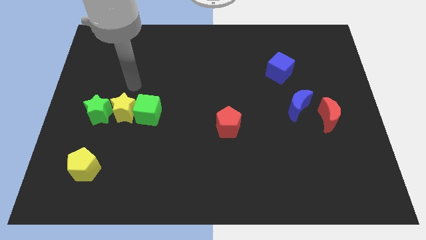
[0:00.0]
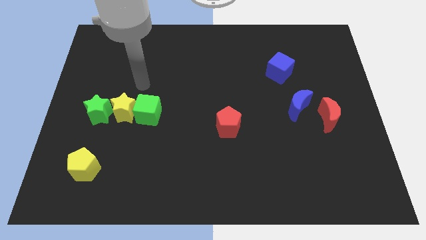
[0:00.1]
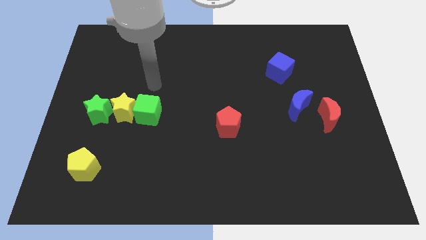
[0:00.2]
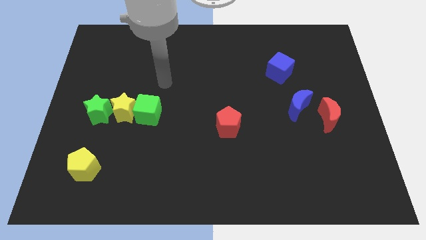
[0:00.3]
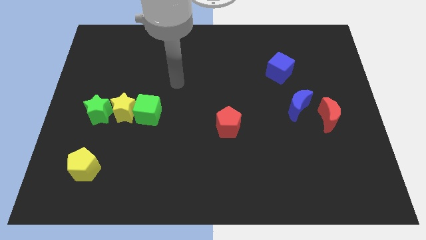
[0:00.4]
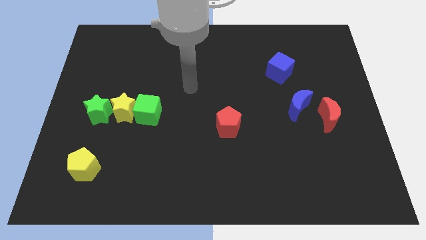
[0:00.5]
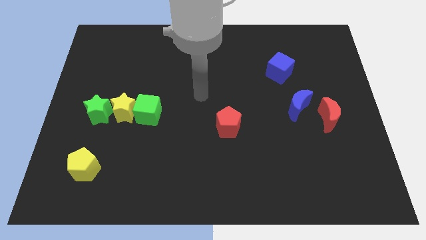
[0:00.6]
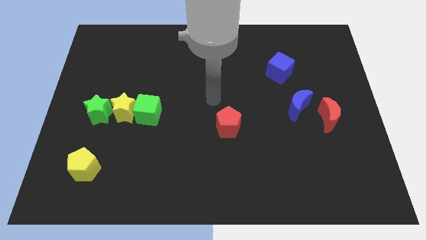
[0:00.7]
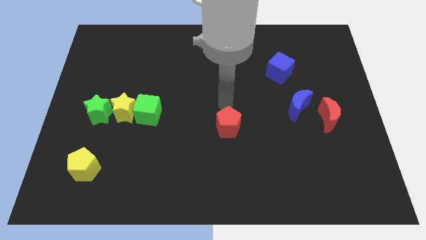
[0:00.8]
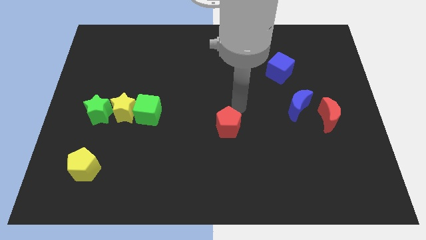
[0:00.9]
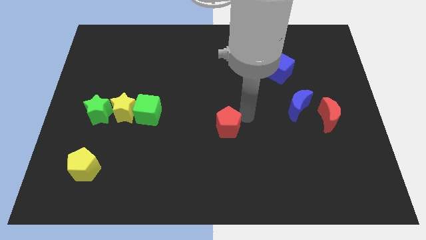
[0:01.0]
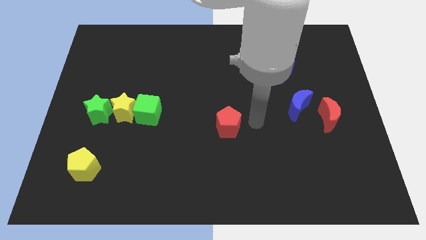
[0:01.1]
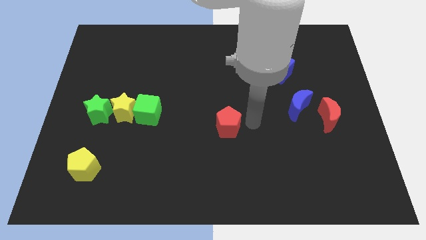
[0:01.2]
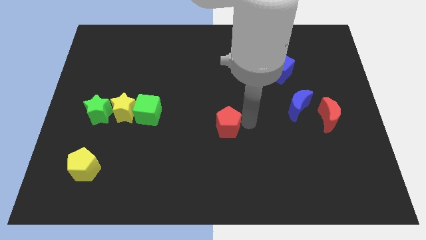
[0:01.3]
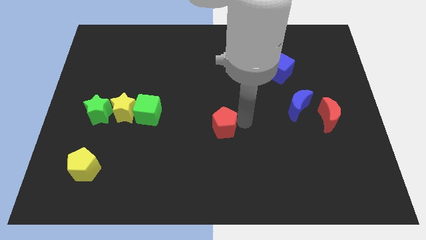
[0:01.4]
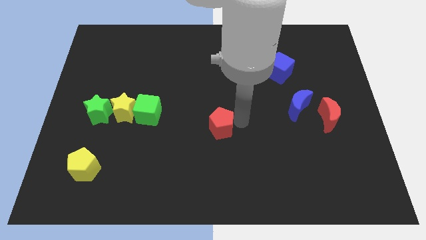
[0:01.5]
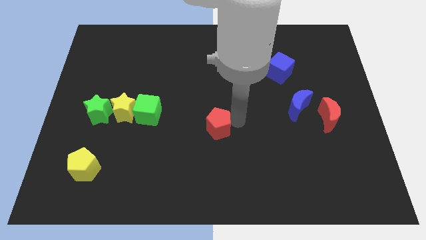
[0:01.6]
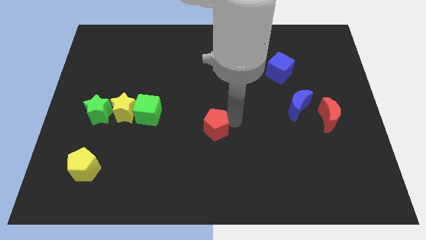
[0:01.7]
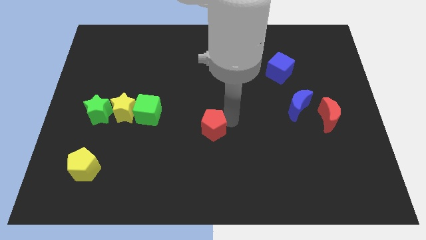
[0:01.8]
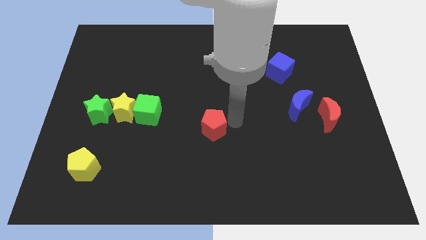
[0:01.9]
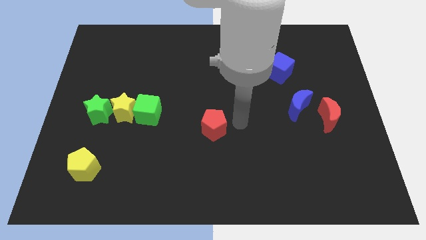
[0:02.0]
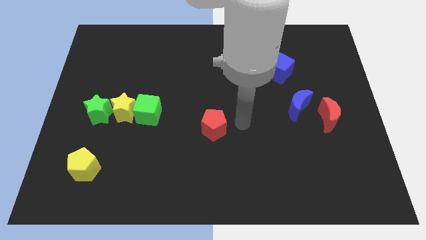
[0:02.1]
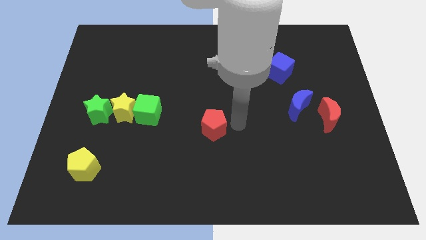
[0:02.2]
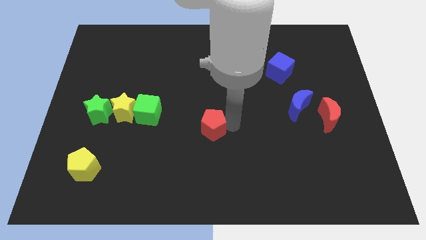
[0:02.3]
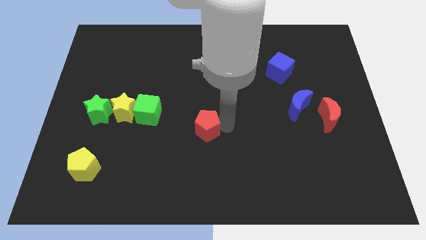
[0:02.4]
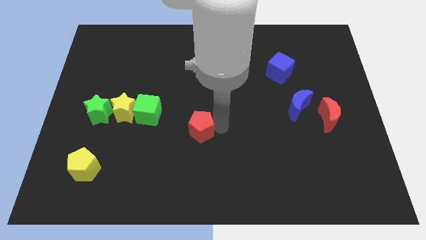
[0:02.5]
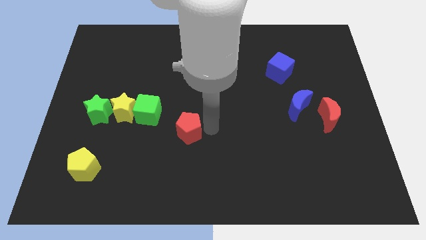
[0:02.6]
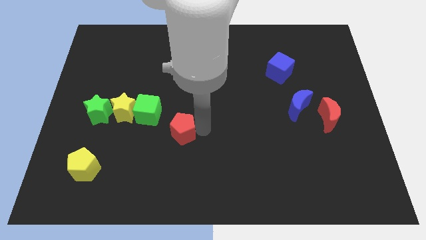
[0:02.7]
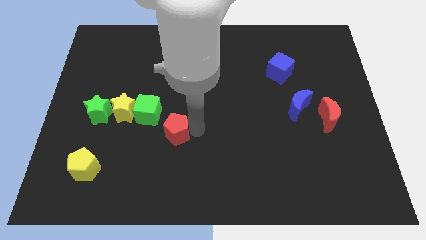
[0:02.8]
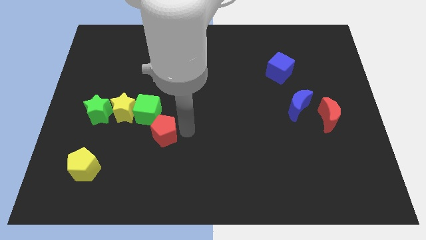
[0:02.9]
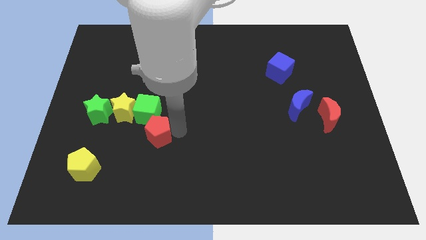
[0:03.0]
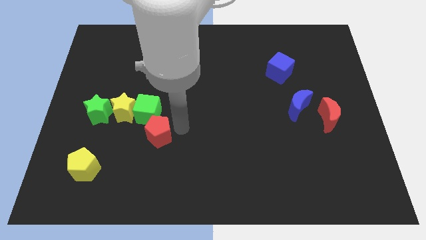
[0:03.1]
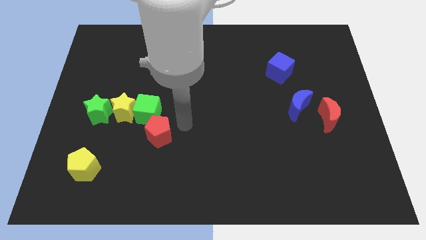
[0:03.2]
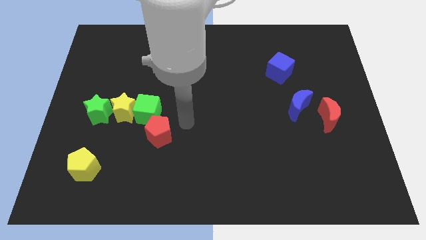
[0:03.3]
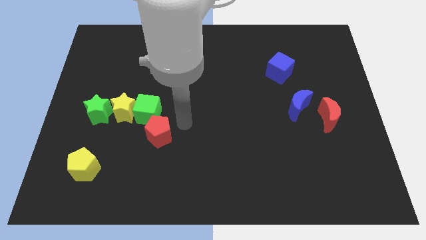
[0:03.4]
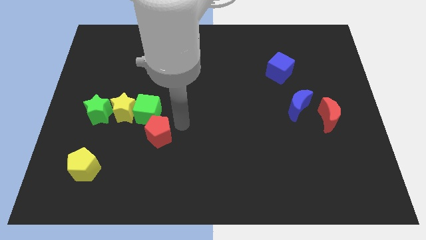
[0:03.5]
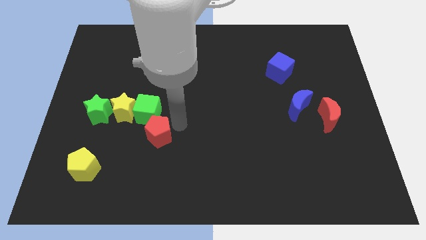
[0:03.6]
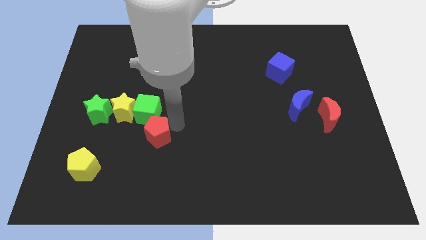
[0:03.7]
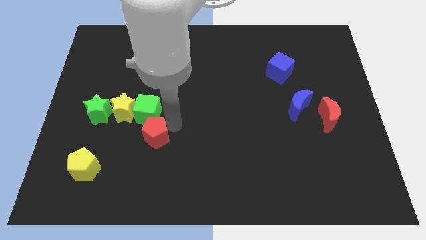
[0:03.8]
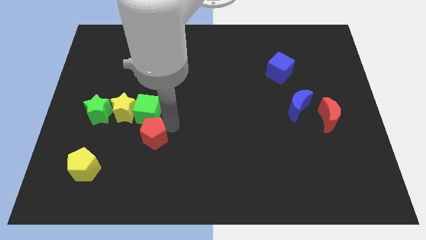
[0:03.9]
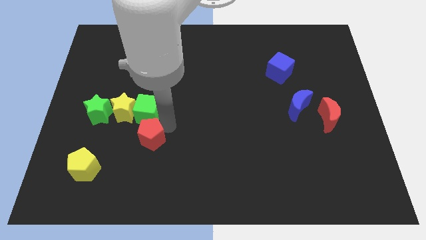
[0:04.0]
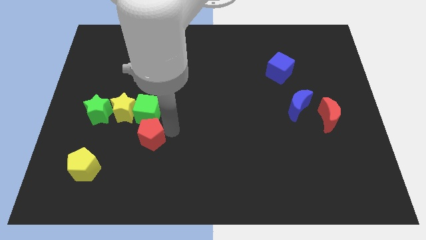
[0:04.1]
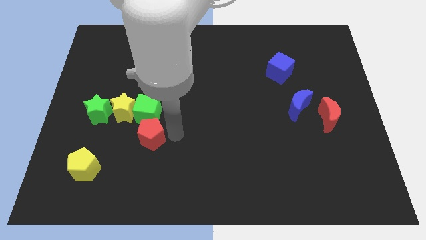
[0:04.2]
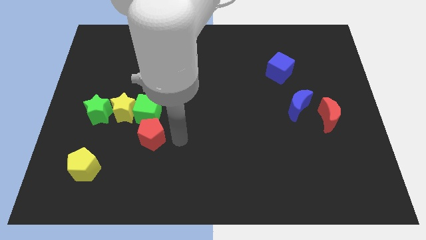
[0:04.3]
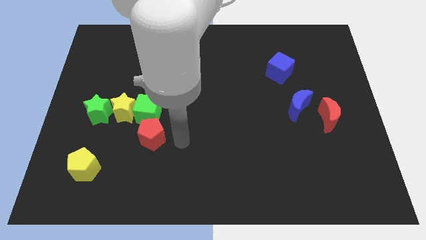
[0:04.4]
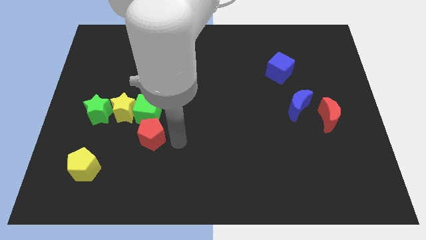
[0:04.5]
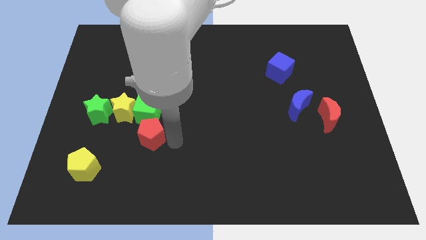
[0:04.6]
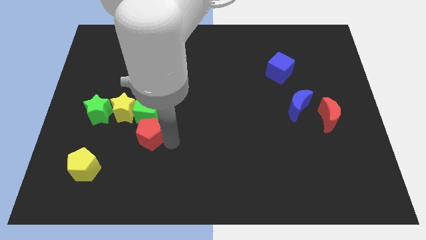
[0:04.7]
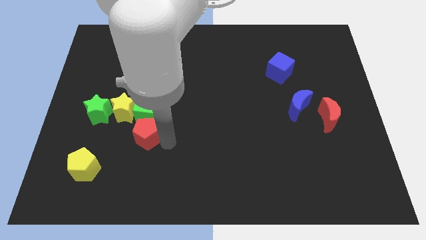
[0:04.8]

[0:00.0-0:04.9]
put the red pentagon diagonally down and to the left of the green cube

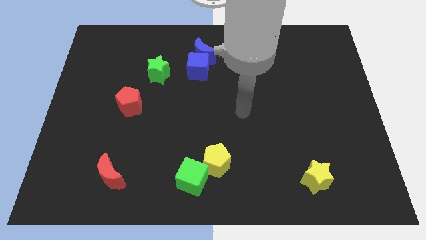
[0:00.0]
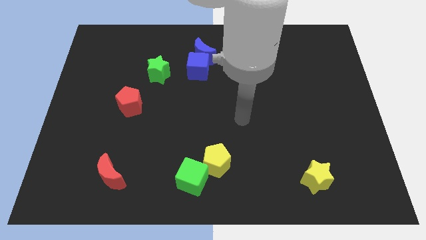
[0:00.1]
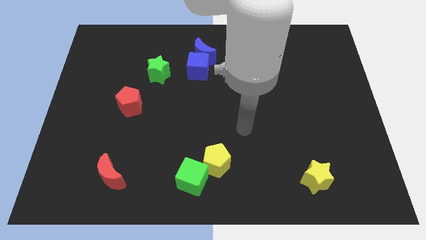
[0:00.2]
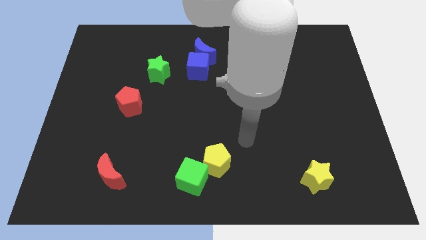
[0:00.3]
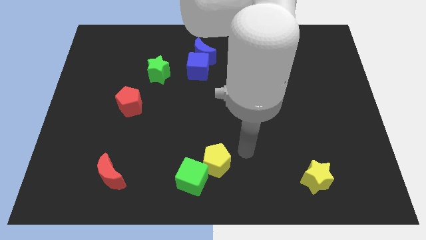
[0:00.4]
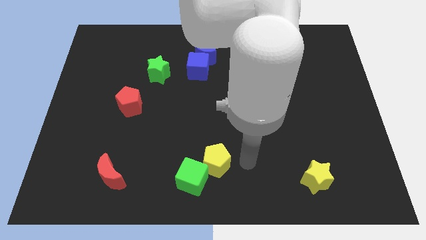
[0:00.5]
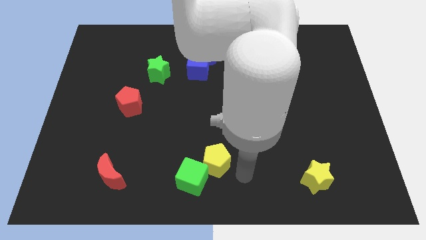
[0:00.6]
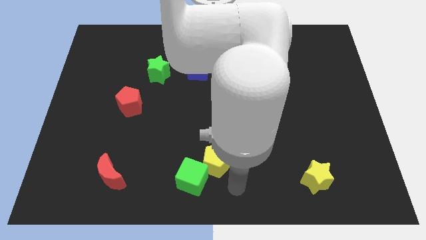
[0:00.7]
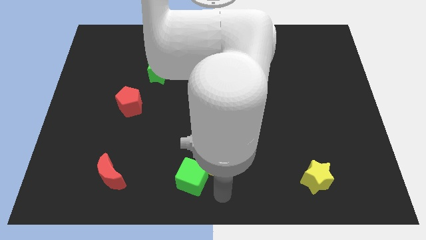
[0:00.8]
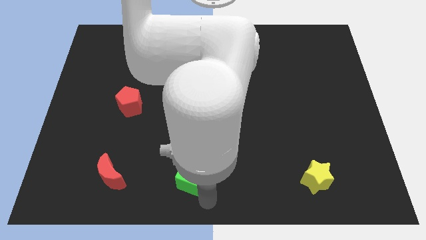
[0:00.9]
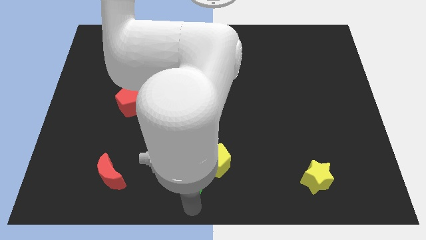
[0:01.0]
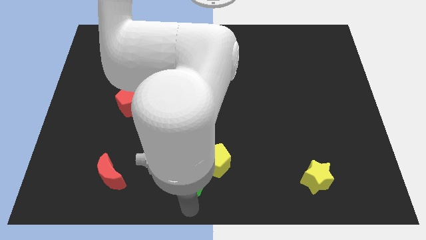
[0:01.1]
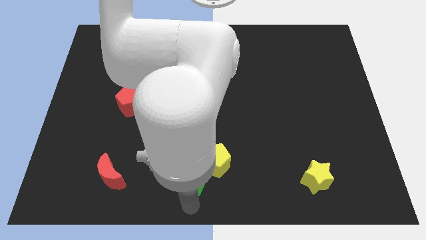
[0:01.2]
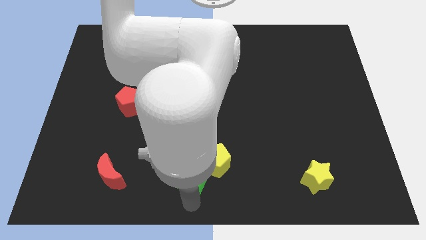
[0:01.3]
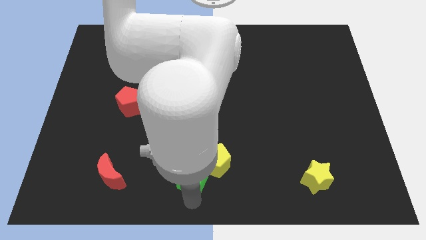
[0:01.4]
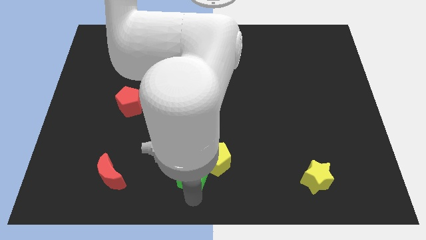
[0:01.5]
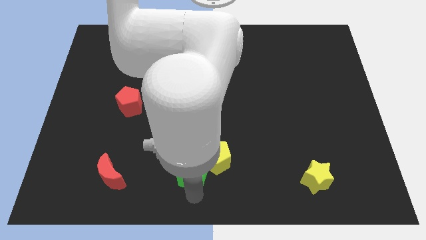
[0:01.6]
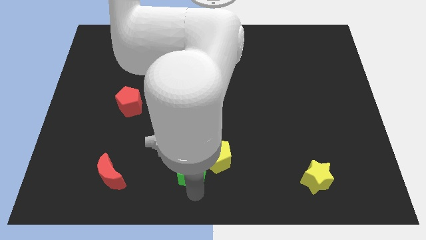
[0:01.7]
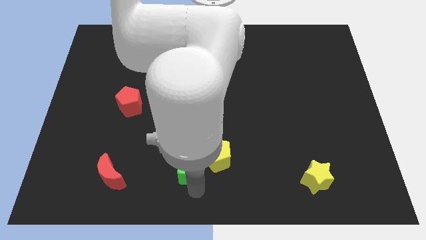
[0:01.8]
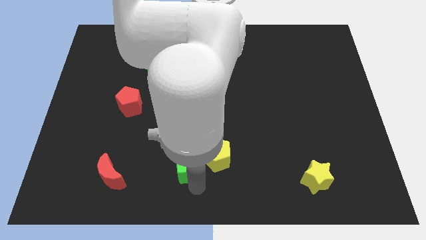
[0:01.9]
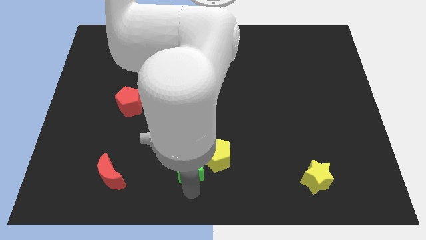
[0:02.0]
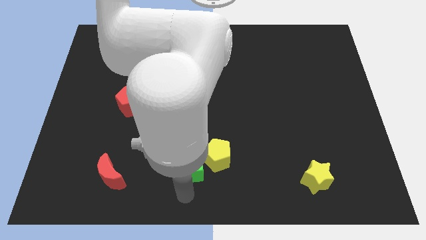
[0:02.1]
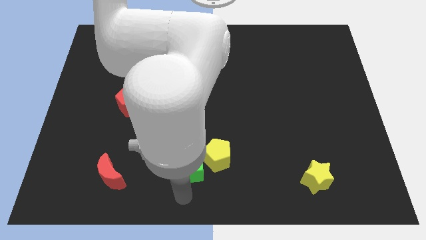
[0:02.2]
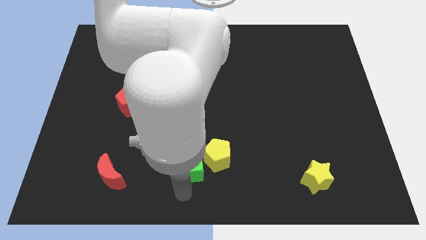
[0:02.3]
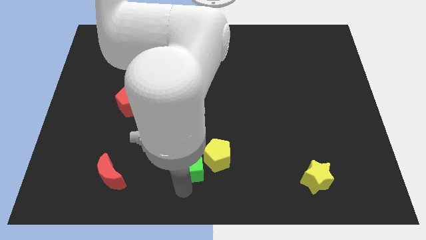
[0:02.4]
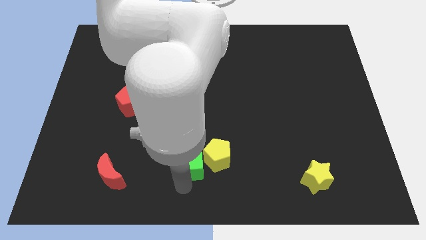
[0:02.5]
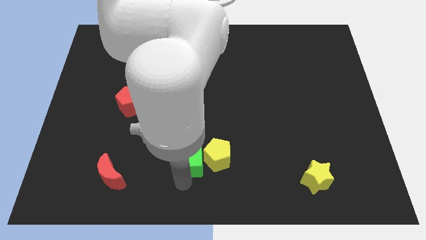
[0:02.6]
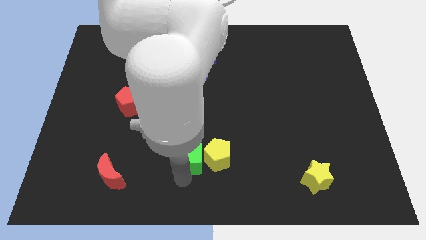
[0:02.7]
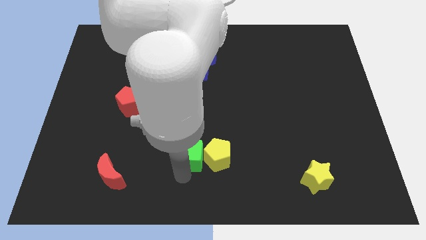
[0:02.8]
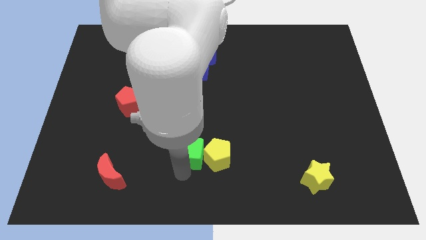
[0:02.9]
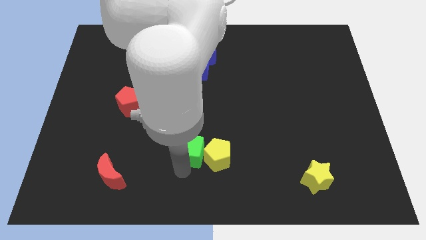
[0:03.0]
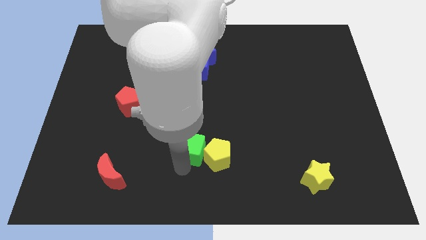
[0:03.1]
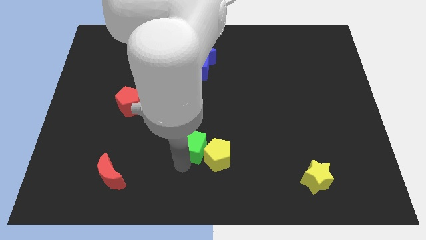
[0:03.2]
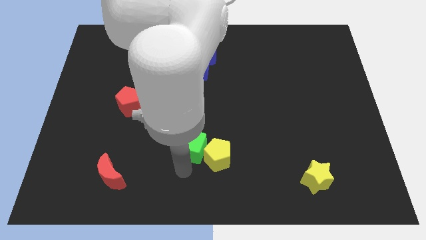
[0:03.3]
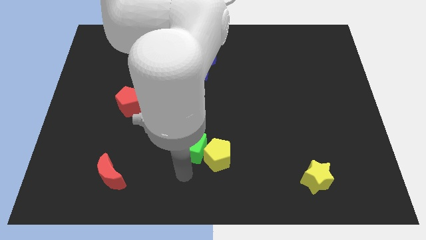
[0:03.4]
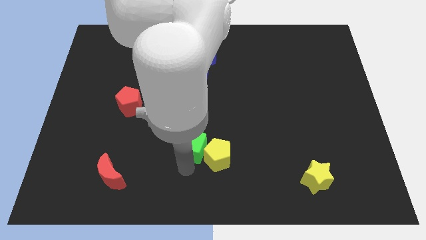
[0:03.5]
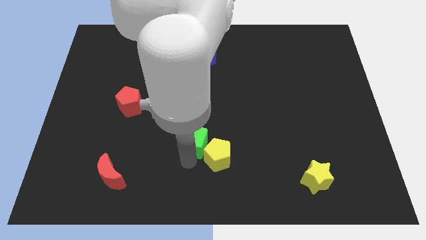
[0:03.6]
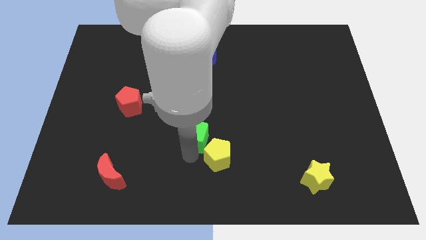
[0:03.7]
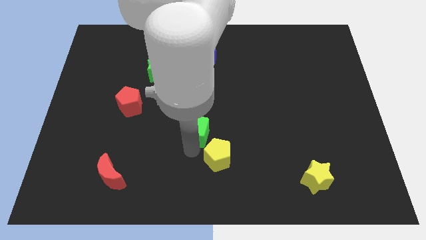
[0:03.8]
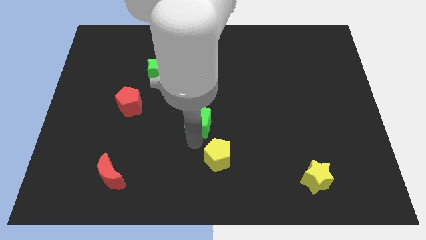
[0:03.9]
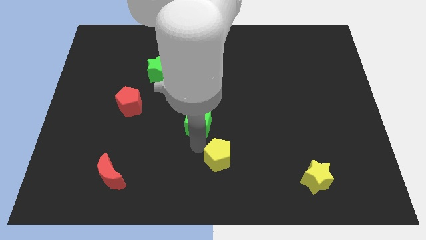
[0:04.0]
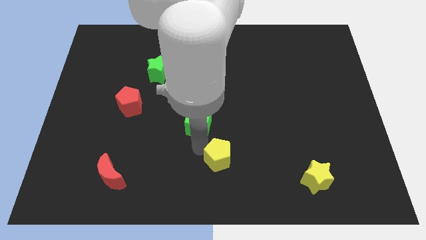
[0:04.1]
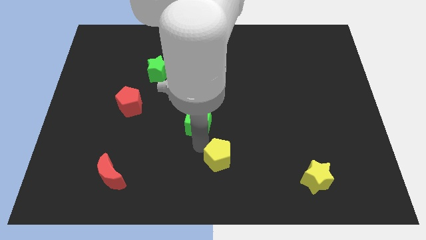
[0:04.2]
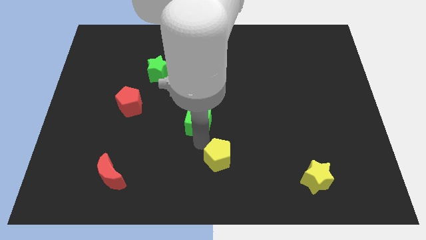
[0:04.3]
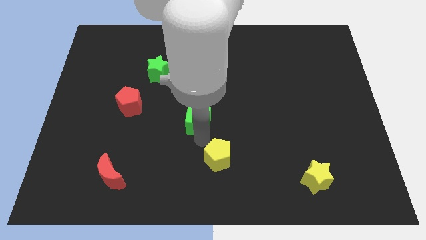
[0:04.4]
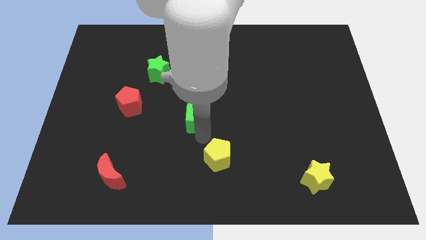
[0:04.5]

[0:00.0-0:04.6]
slide the green cube to the bottom side of the blue cube
